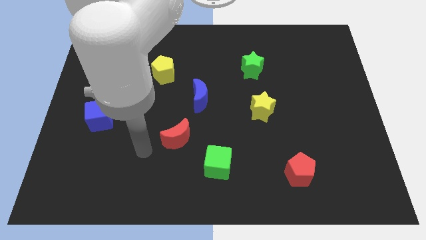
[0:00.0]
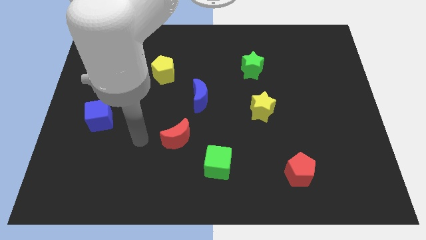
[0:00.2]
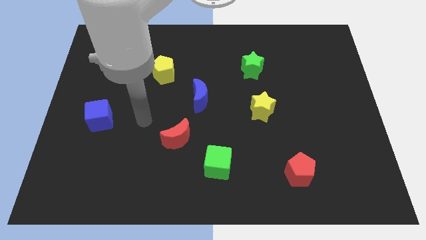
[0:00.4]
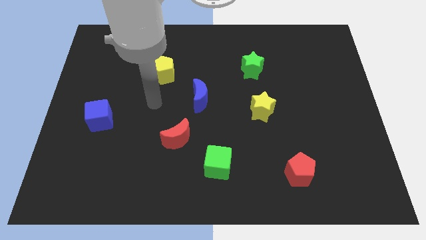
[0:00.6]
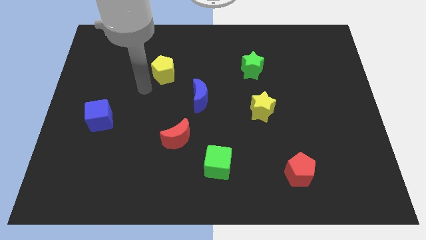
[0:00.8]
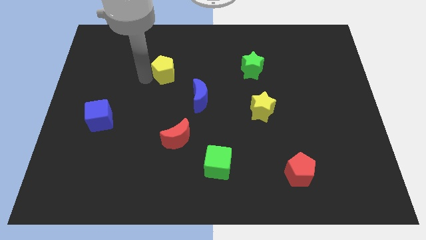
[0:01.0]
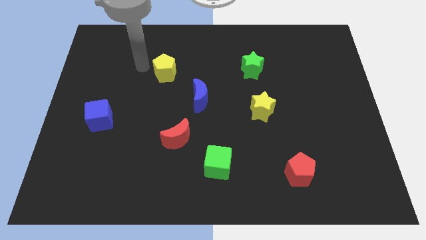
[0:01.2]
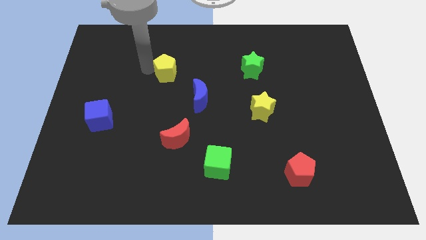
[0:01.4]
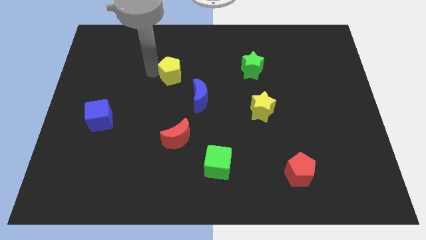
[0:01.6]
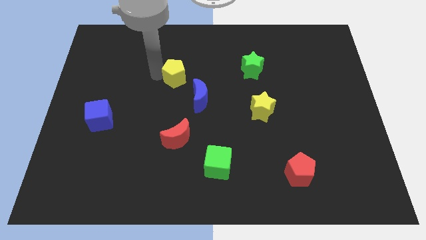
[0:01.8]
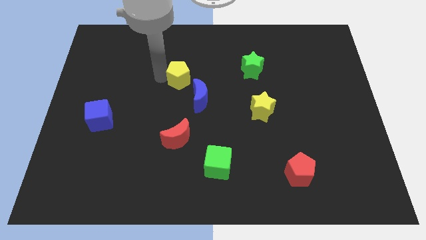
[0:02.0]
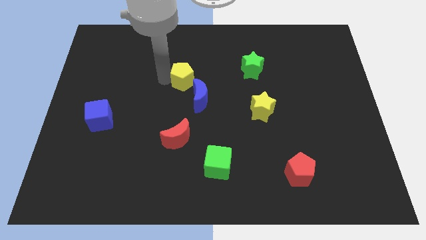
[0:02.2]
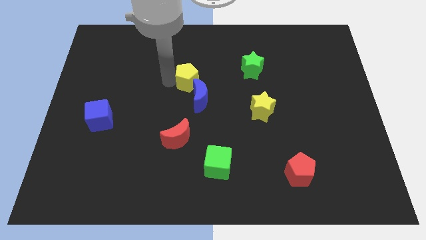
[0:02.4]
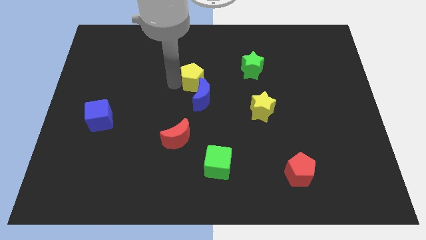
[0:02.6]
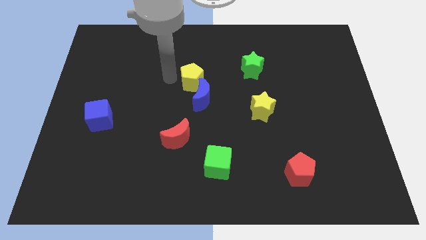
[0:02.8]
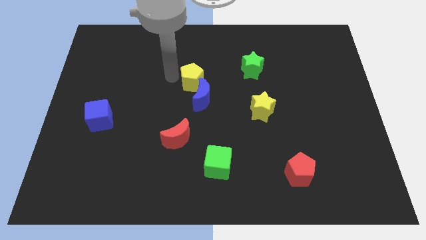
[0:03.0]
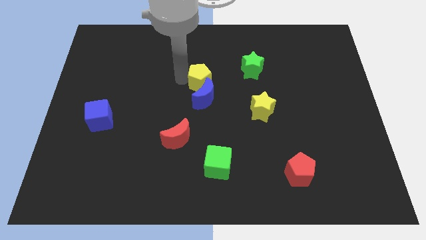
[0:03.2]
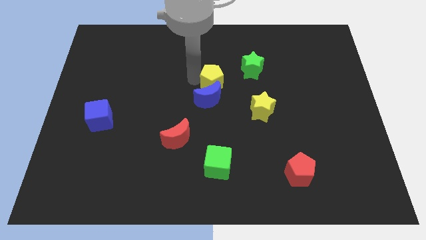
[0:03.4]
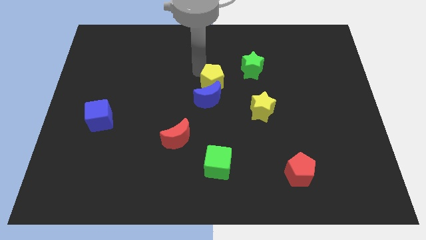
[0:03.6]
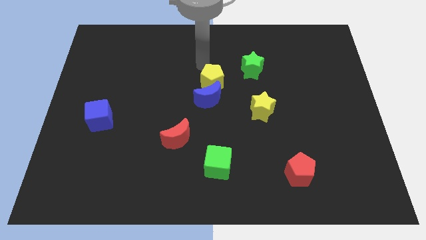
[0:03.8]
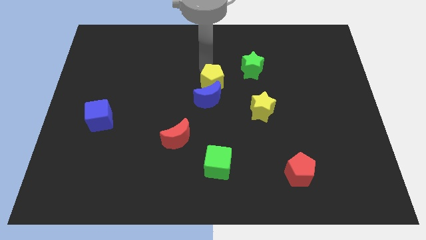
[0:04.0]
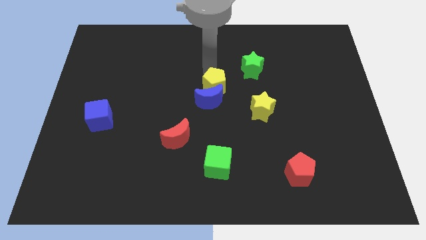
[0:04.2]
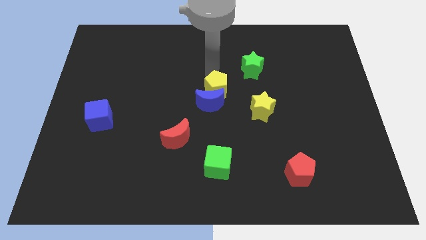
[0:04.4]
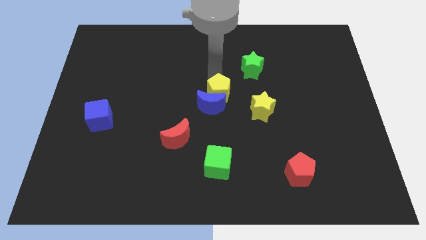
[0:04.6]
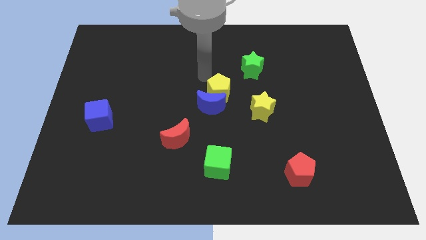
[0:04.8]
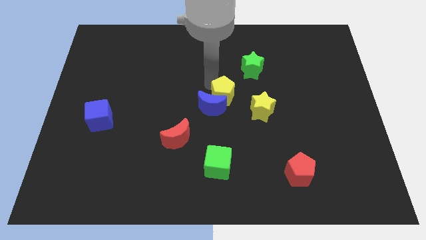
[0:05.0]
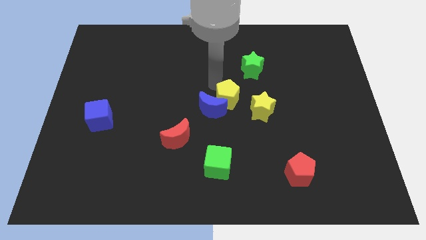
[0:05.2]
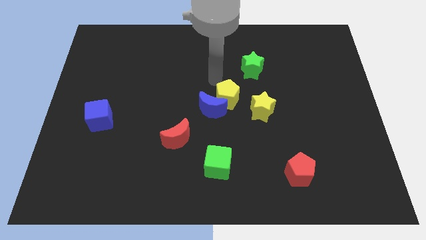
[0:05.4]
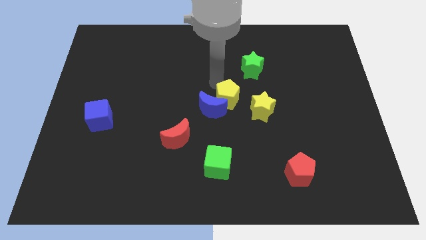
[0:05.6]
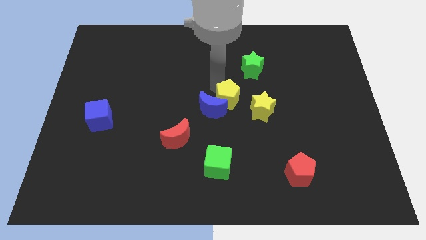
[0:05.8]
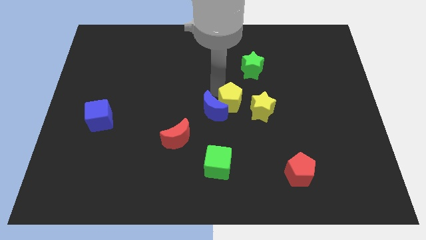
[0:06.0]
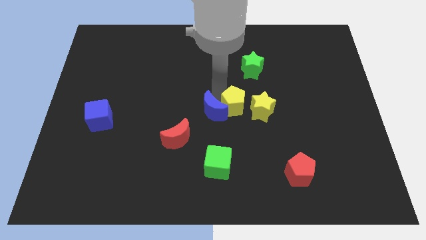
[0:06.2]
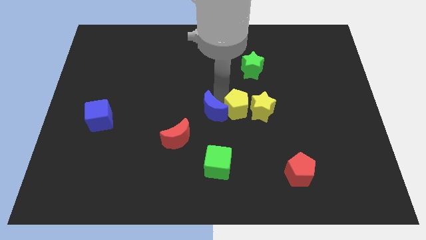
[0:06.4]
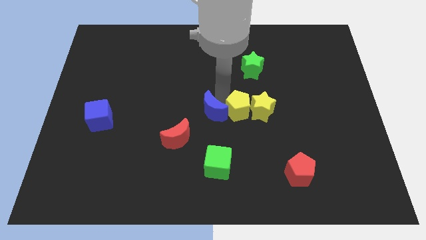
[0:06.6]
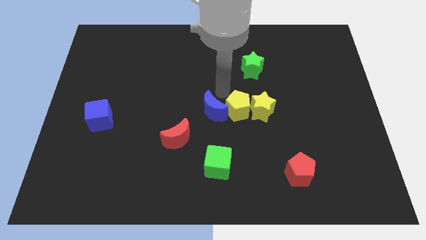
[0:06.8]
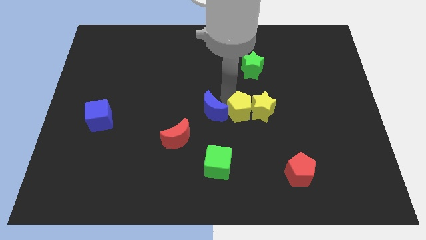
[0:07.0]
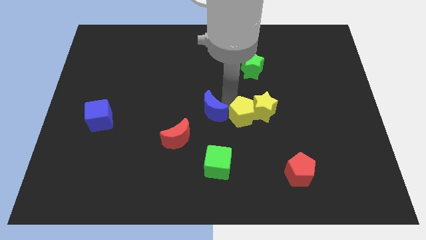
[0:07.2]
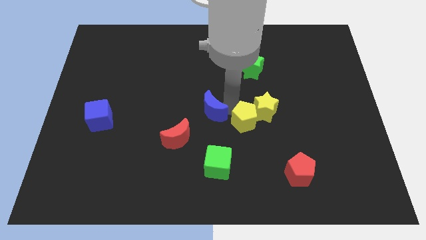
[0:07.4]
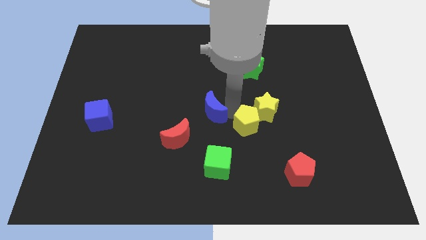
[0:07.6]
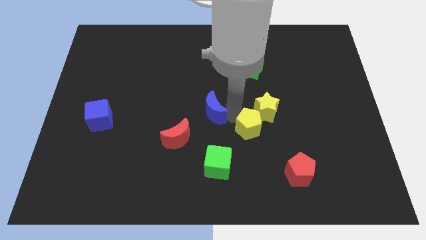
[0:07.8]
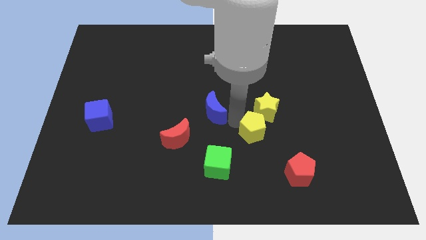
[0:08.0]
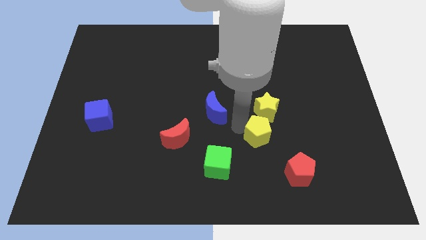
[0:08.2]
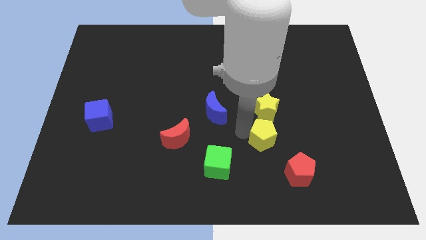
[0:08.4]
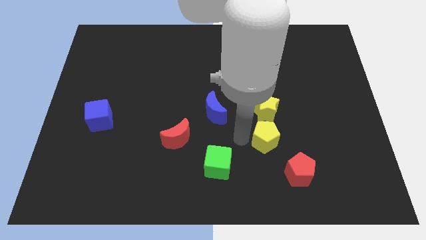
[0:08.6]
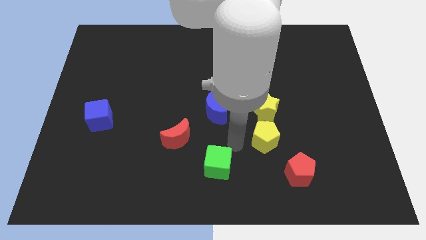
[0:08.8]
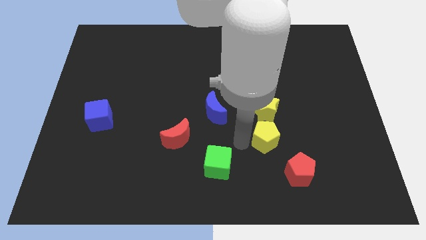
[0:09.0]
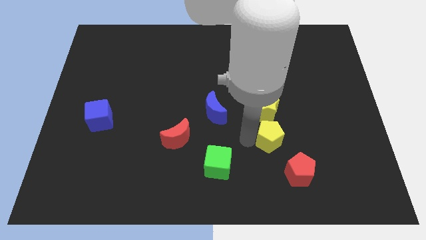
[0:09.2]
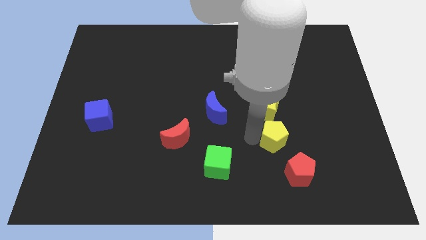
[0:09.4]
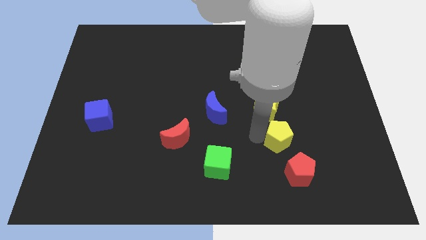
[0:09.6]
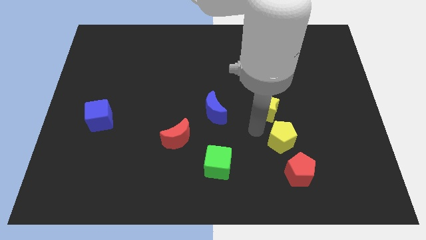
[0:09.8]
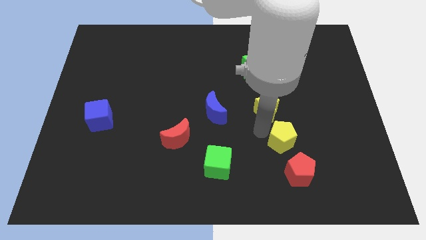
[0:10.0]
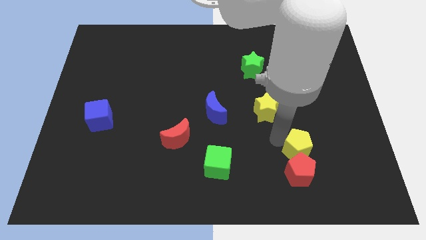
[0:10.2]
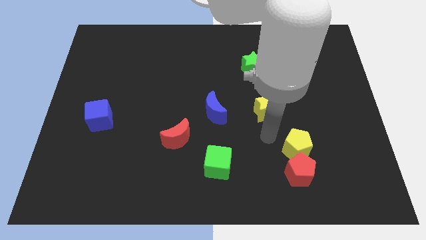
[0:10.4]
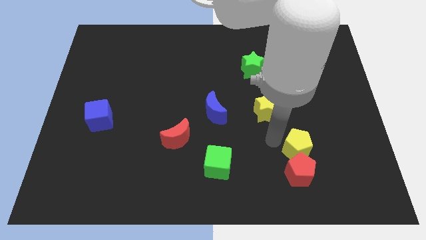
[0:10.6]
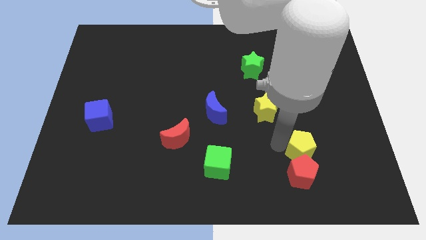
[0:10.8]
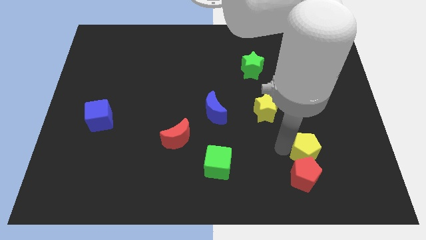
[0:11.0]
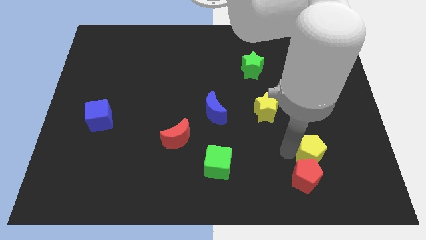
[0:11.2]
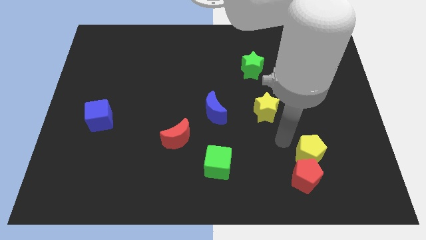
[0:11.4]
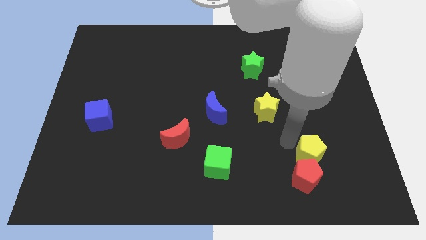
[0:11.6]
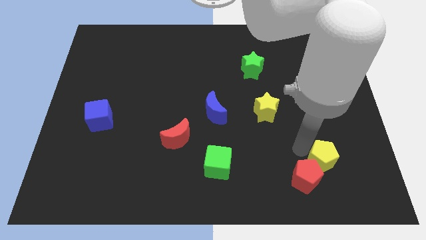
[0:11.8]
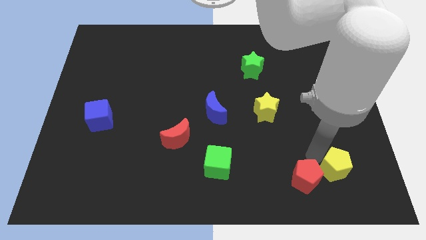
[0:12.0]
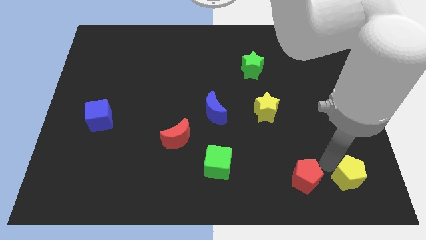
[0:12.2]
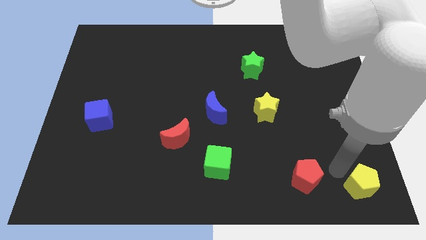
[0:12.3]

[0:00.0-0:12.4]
move the yellow pentagon to the bottom right

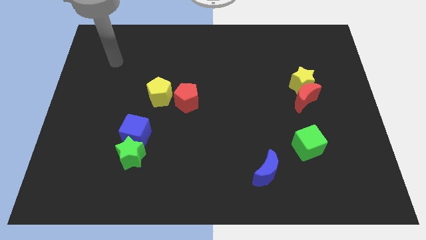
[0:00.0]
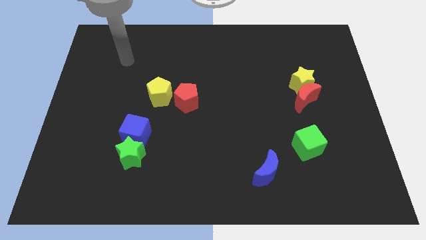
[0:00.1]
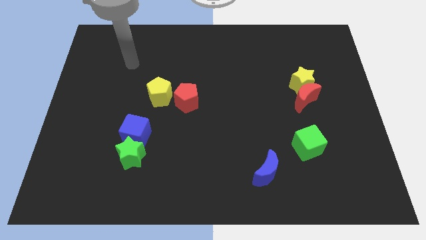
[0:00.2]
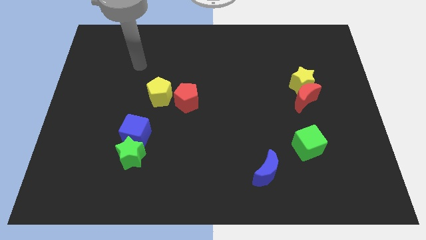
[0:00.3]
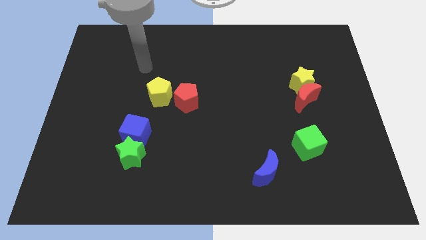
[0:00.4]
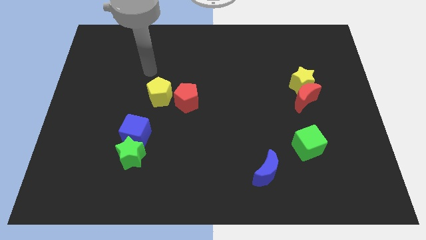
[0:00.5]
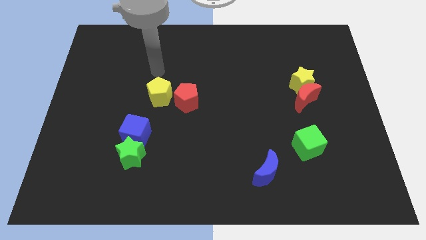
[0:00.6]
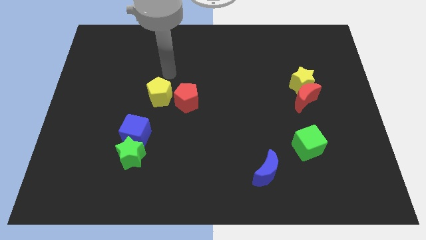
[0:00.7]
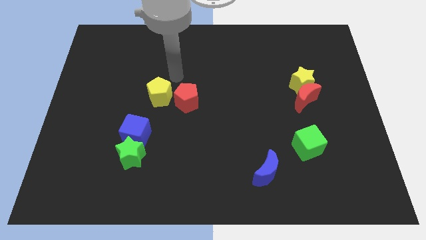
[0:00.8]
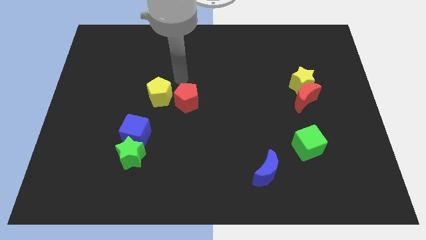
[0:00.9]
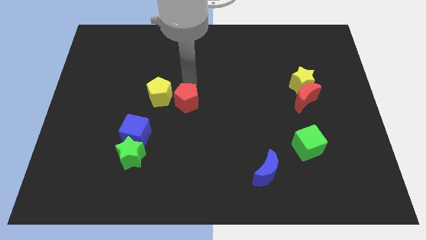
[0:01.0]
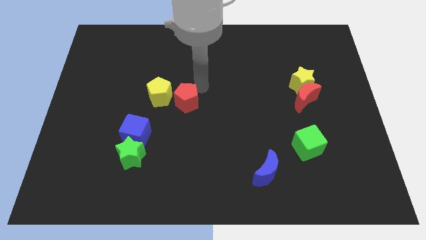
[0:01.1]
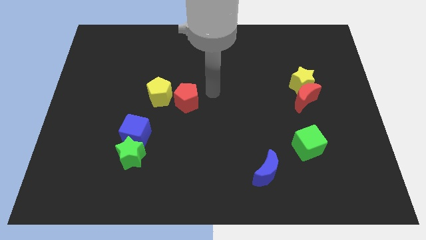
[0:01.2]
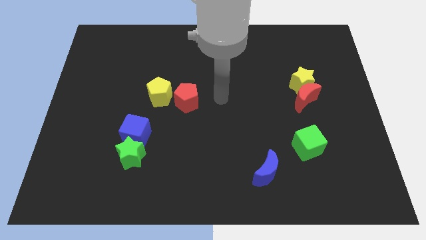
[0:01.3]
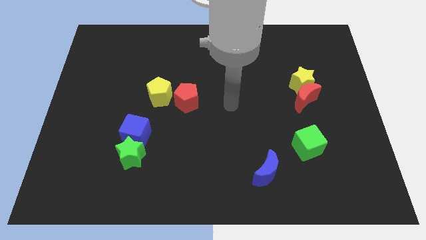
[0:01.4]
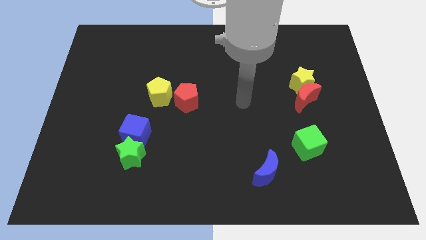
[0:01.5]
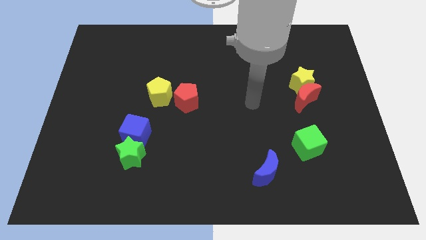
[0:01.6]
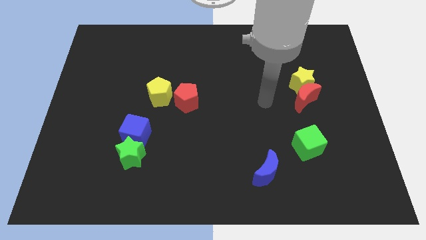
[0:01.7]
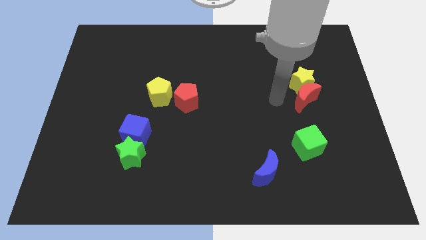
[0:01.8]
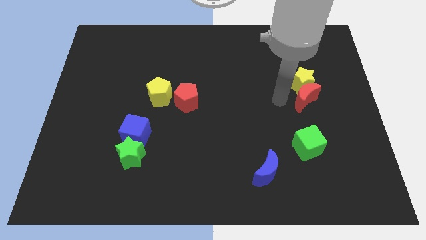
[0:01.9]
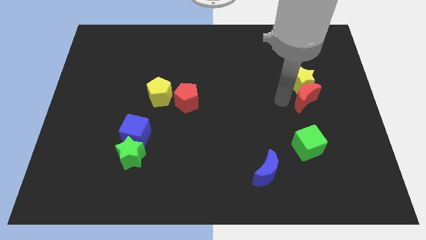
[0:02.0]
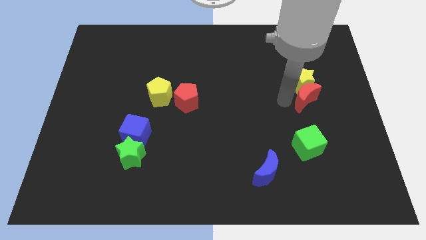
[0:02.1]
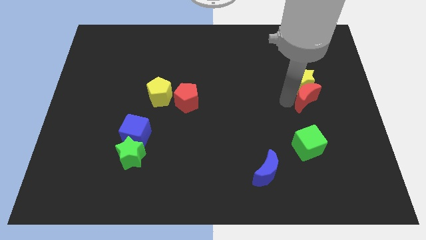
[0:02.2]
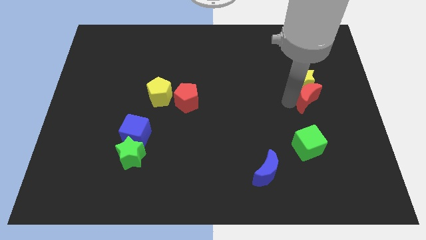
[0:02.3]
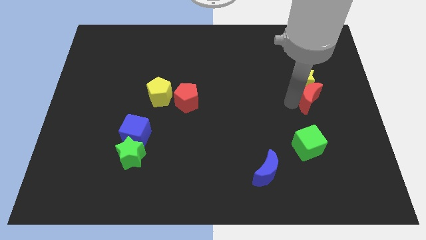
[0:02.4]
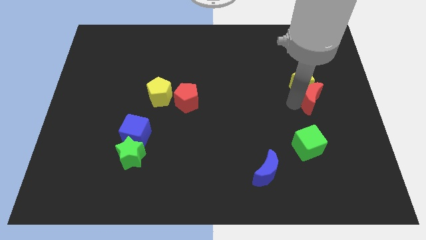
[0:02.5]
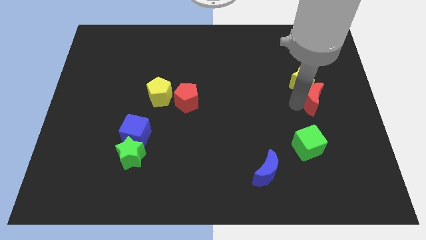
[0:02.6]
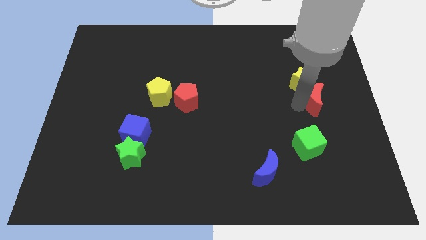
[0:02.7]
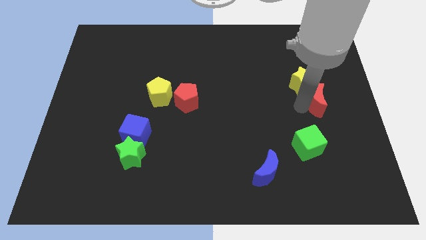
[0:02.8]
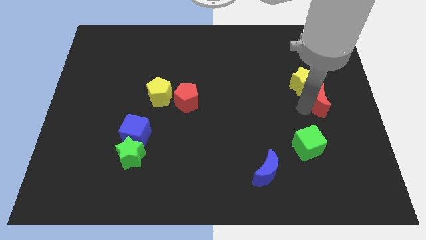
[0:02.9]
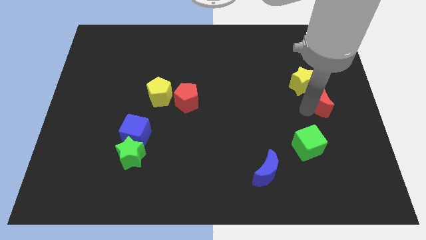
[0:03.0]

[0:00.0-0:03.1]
push the red moon to the right side of the board
